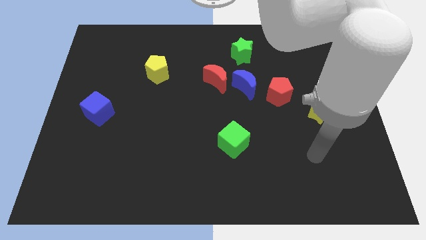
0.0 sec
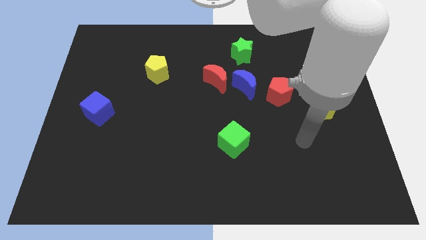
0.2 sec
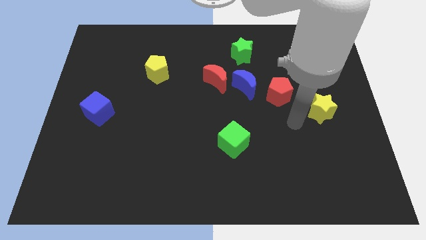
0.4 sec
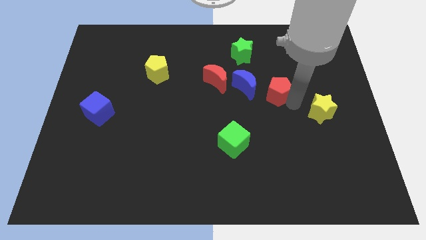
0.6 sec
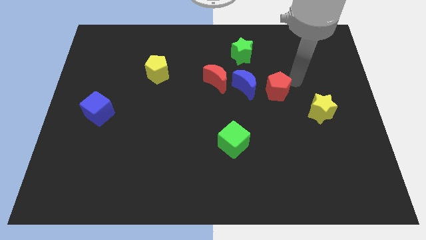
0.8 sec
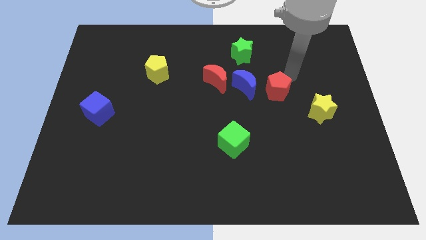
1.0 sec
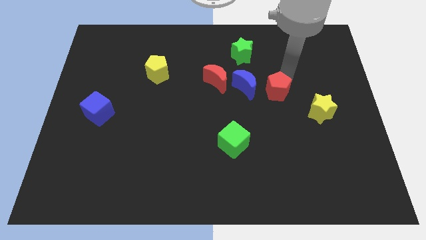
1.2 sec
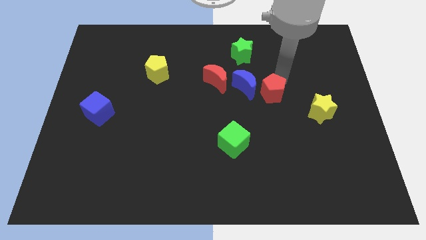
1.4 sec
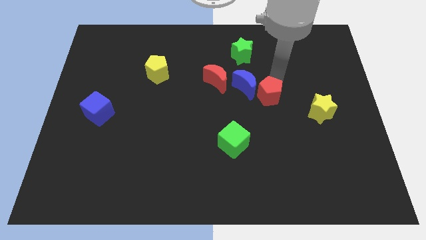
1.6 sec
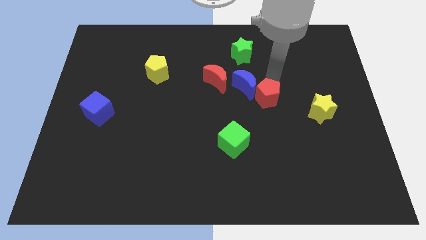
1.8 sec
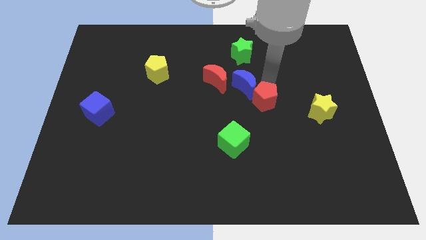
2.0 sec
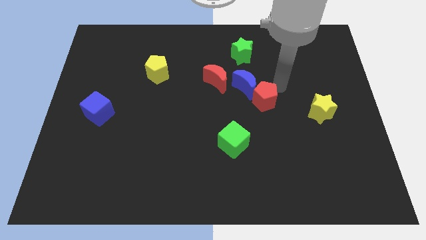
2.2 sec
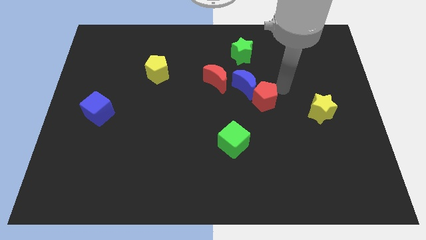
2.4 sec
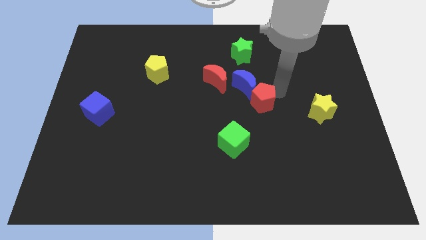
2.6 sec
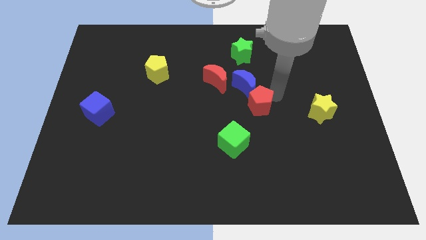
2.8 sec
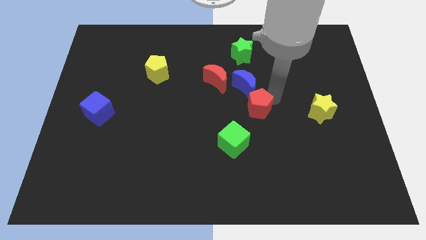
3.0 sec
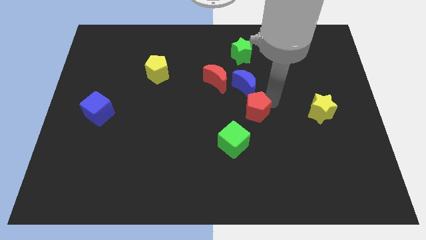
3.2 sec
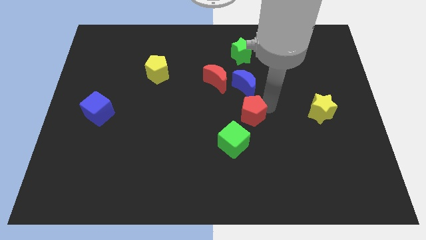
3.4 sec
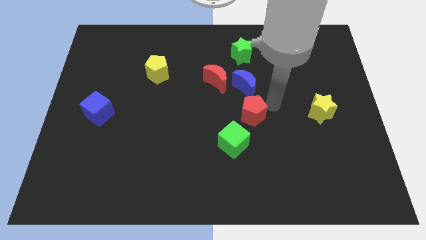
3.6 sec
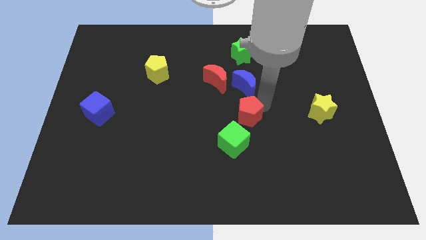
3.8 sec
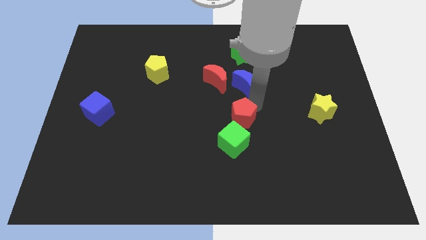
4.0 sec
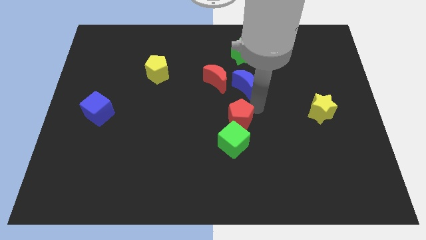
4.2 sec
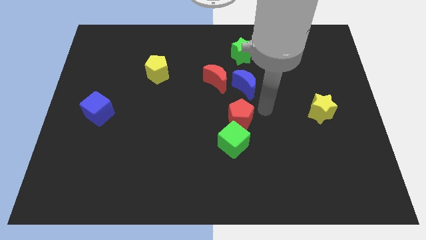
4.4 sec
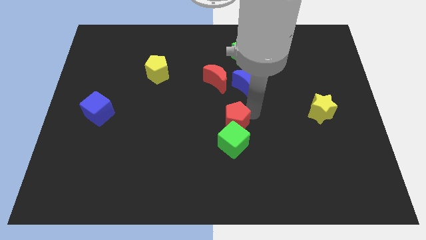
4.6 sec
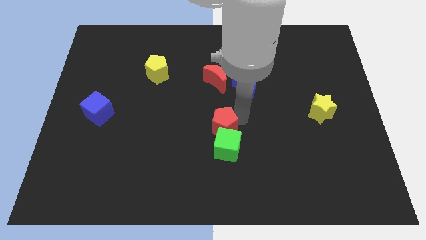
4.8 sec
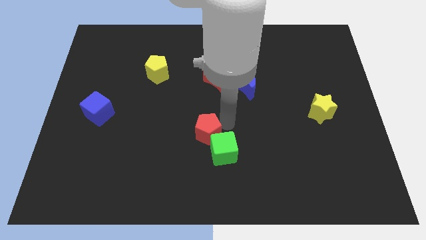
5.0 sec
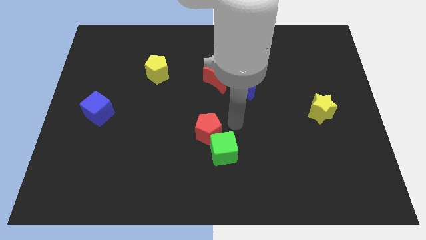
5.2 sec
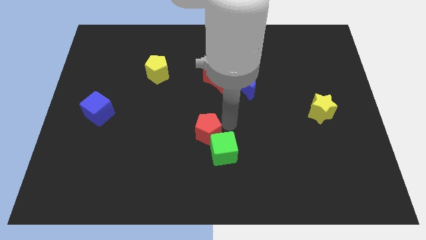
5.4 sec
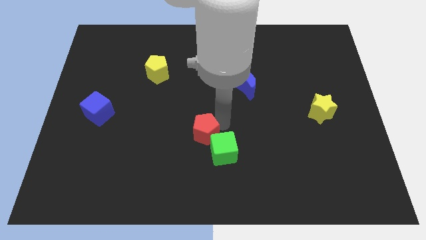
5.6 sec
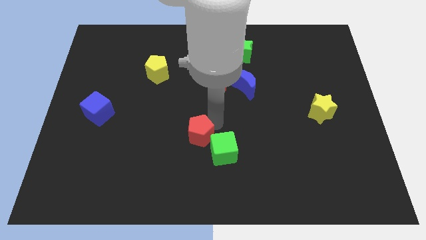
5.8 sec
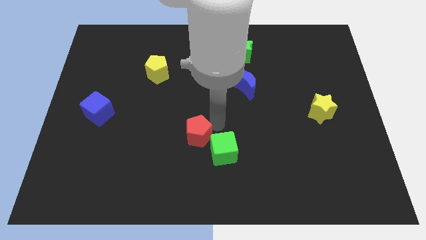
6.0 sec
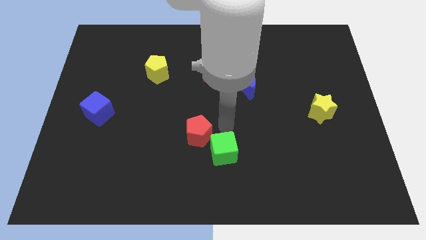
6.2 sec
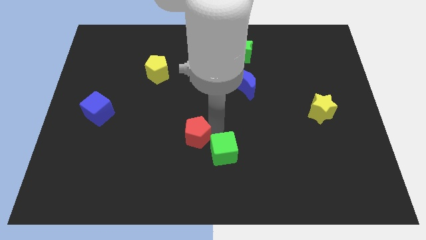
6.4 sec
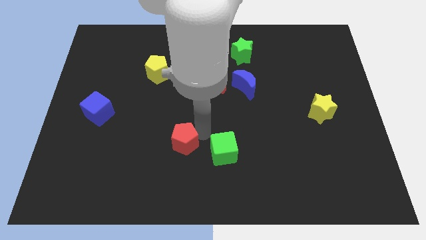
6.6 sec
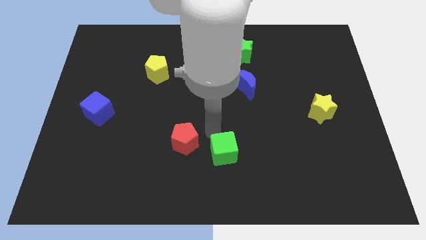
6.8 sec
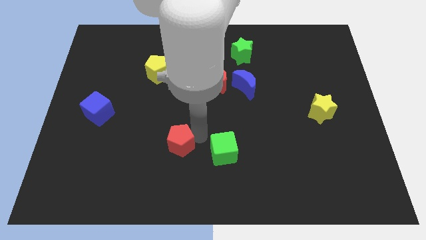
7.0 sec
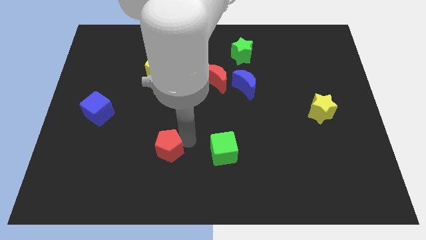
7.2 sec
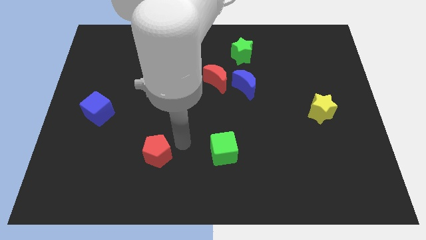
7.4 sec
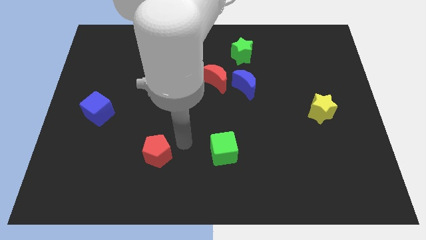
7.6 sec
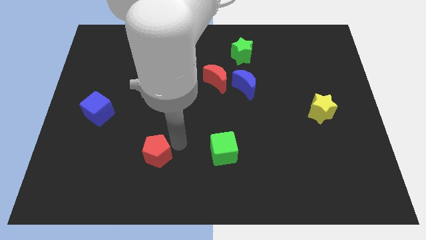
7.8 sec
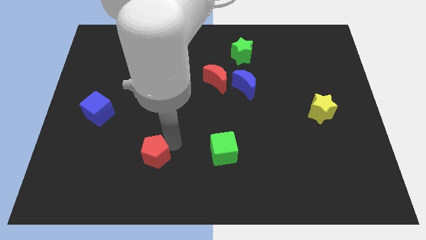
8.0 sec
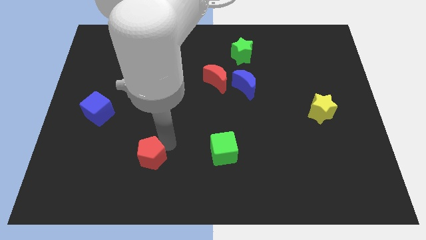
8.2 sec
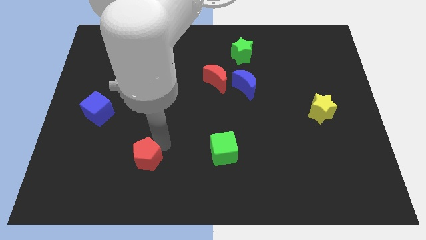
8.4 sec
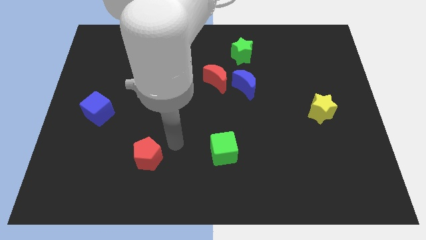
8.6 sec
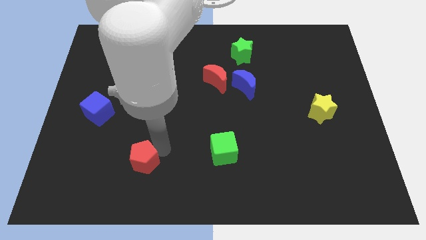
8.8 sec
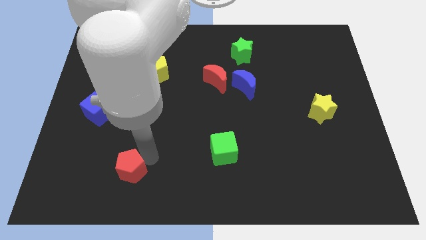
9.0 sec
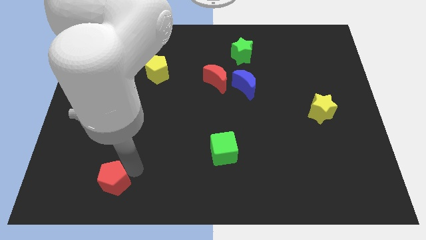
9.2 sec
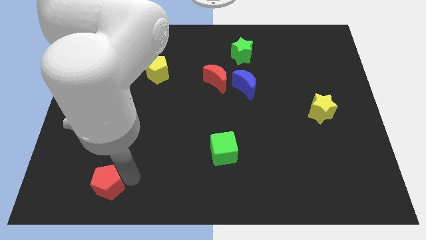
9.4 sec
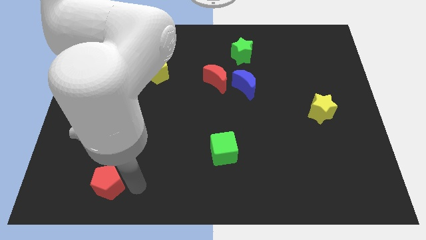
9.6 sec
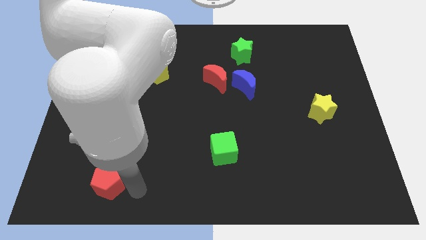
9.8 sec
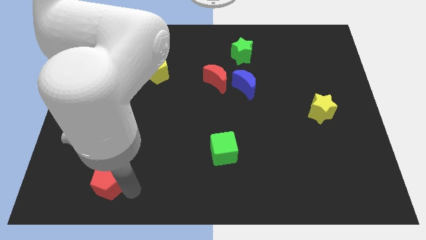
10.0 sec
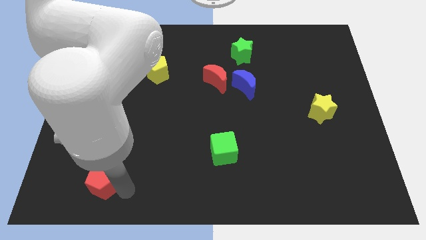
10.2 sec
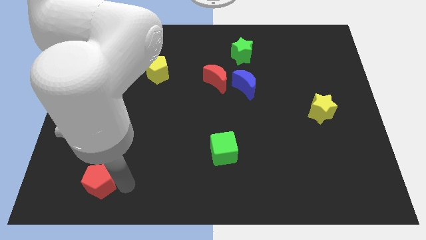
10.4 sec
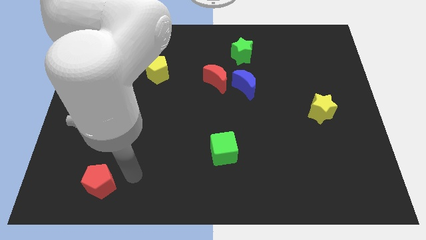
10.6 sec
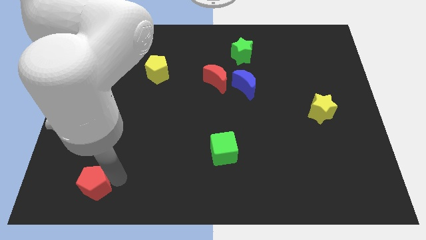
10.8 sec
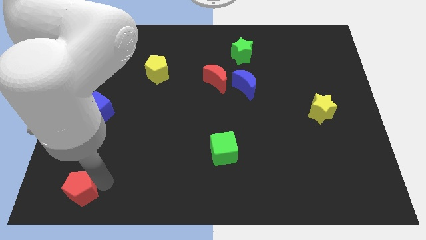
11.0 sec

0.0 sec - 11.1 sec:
push the red pentagon to the bottom left

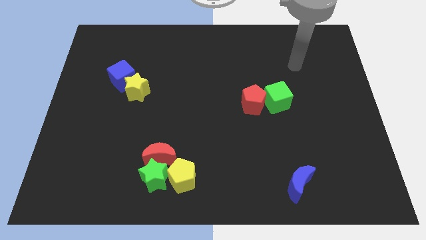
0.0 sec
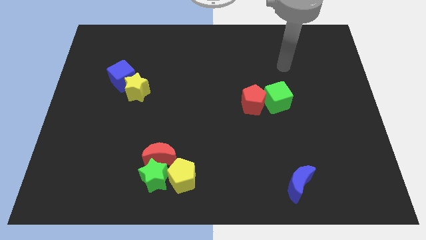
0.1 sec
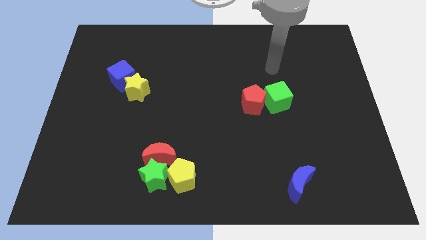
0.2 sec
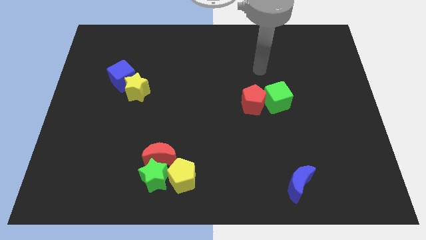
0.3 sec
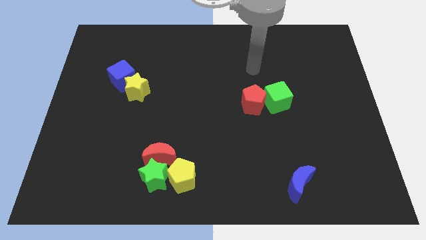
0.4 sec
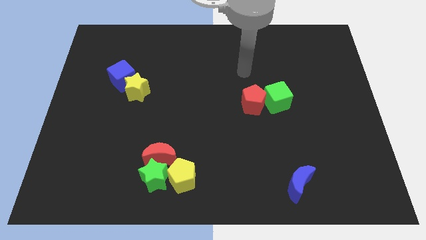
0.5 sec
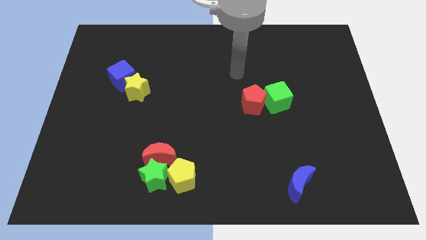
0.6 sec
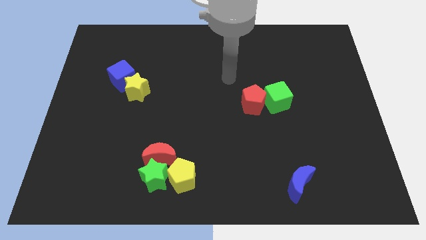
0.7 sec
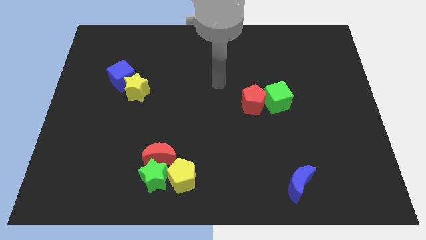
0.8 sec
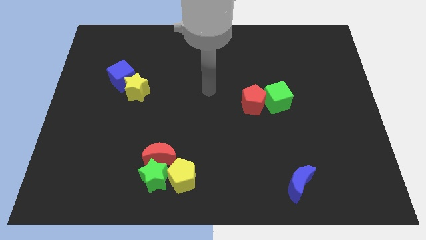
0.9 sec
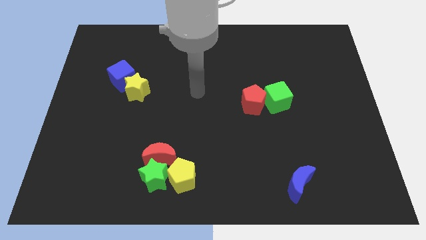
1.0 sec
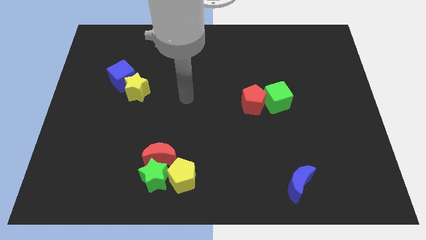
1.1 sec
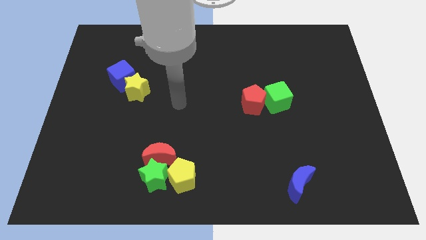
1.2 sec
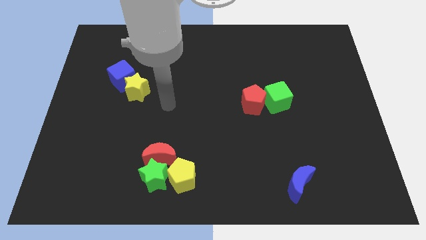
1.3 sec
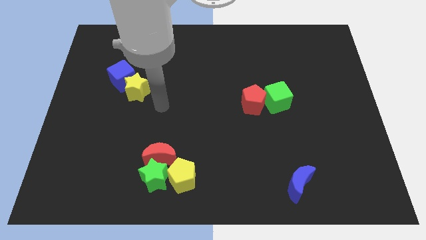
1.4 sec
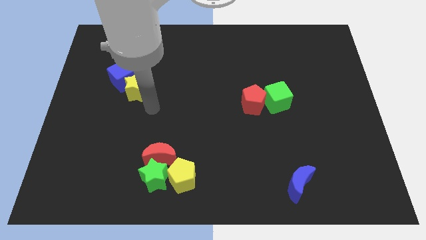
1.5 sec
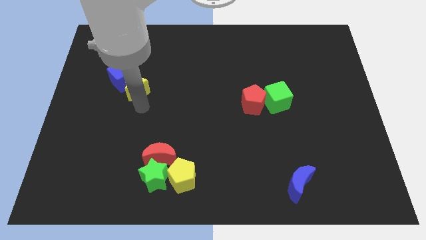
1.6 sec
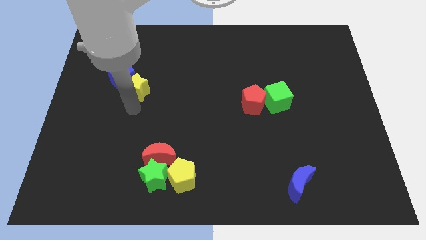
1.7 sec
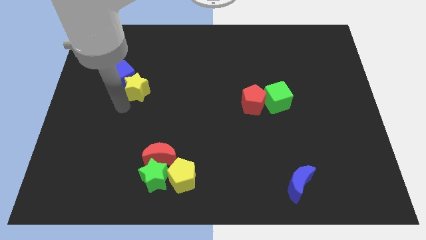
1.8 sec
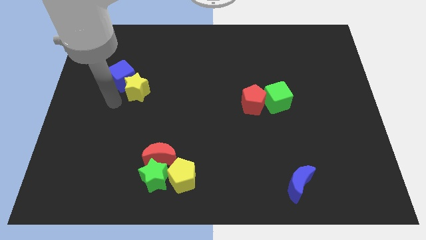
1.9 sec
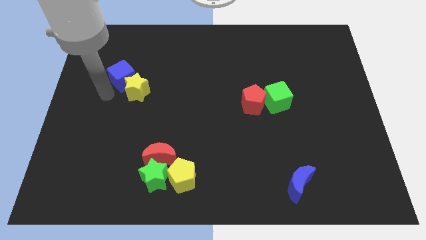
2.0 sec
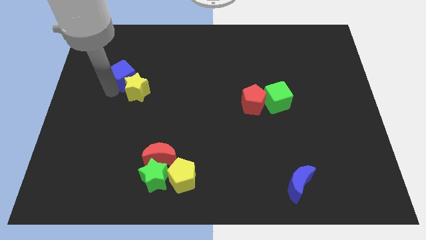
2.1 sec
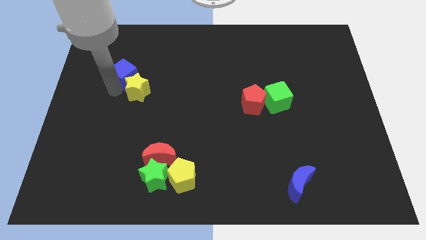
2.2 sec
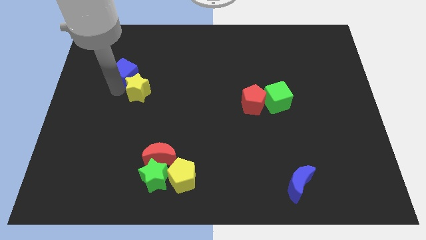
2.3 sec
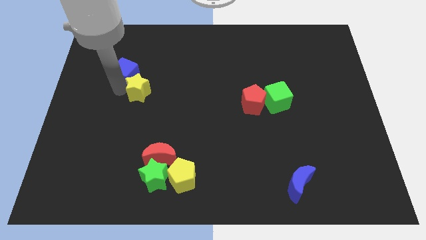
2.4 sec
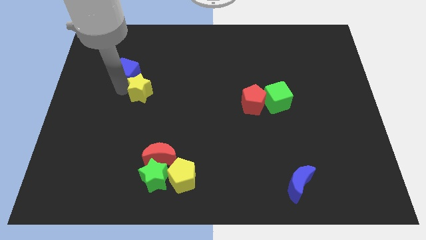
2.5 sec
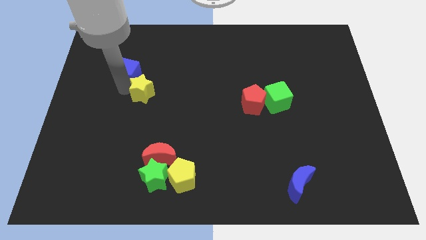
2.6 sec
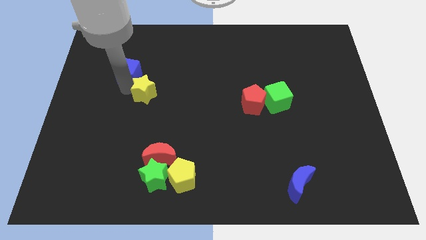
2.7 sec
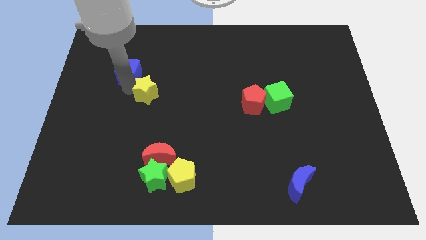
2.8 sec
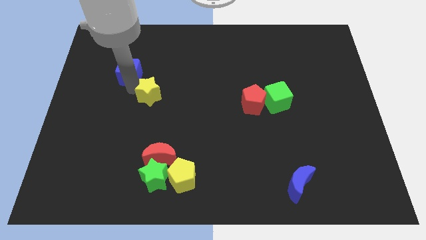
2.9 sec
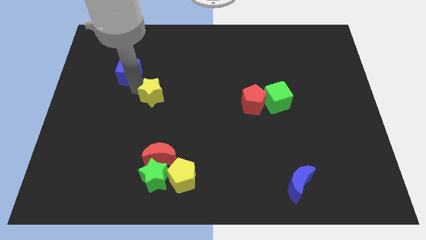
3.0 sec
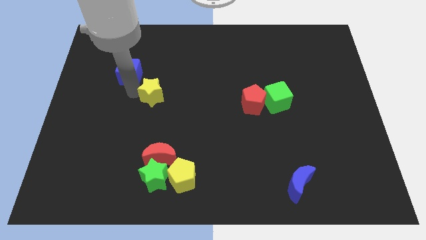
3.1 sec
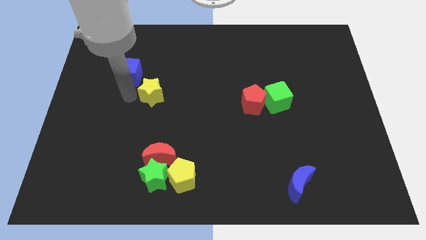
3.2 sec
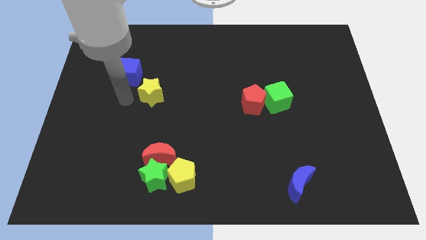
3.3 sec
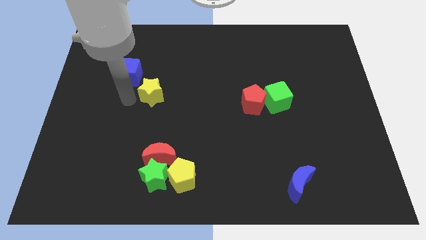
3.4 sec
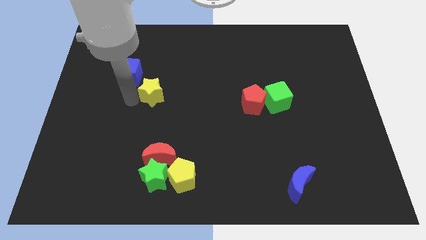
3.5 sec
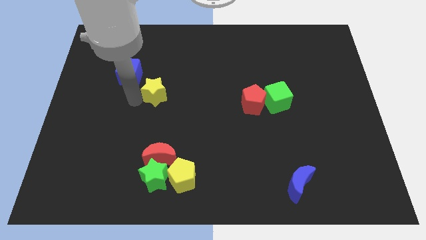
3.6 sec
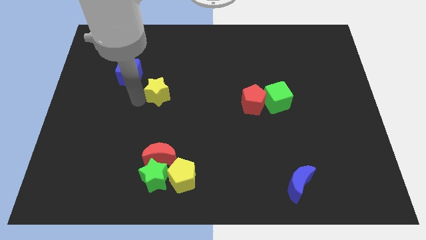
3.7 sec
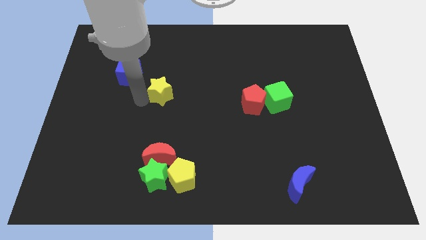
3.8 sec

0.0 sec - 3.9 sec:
push the yellow star to the center
